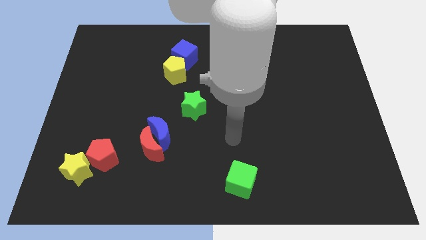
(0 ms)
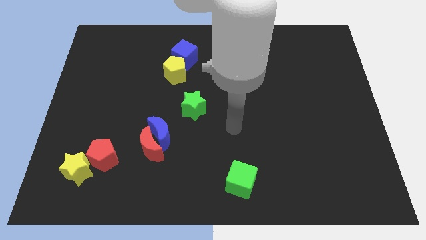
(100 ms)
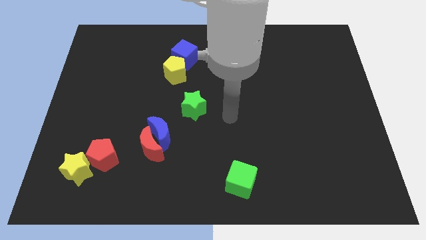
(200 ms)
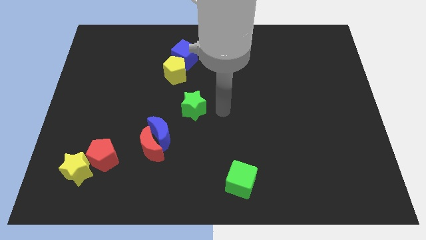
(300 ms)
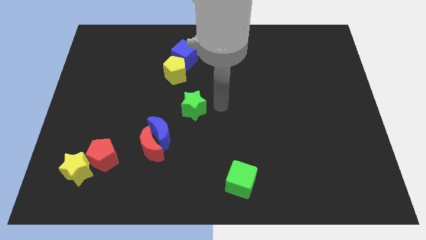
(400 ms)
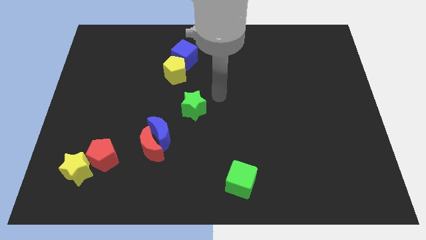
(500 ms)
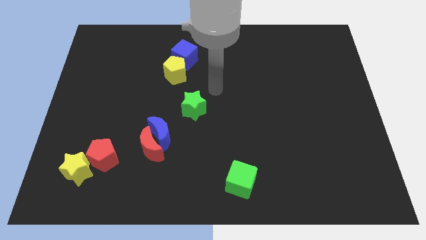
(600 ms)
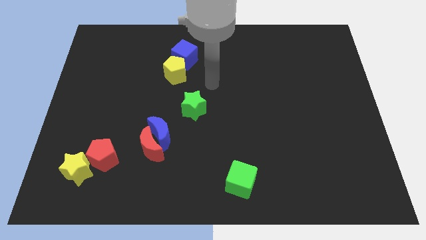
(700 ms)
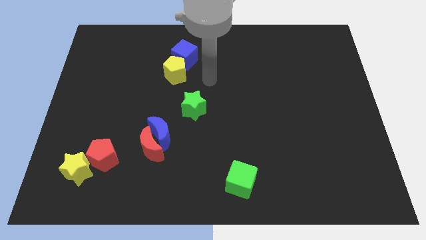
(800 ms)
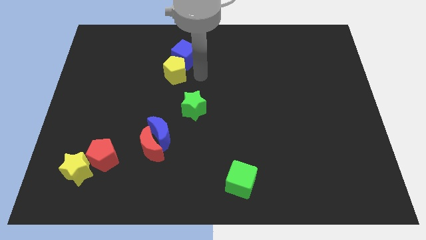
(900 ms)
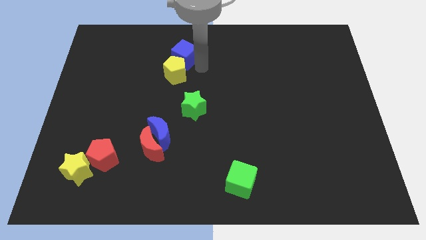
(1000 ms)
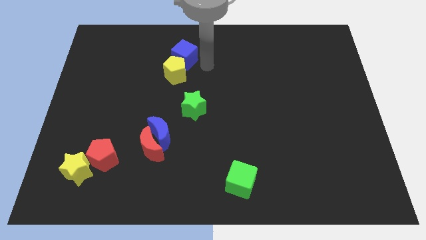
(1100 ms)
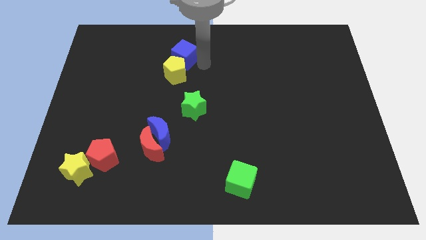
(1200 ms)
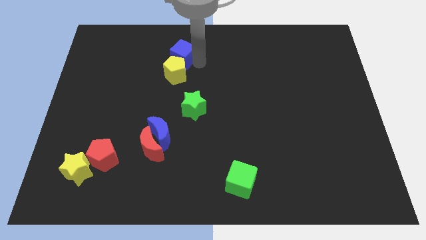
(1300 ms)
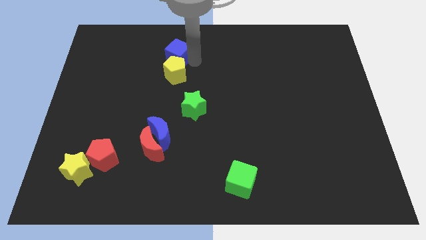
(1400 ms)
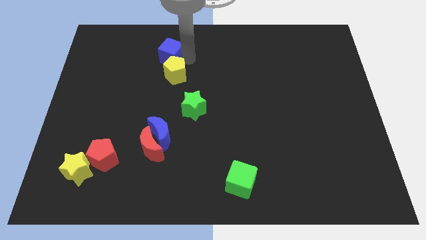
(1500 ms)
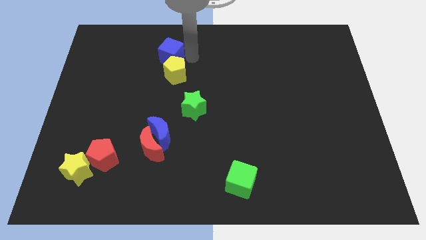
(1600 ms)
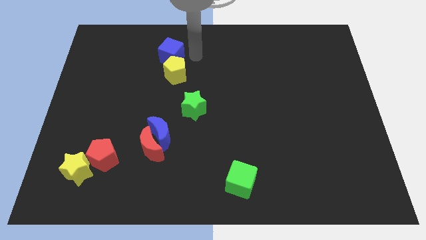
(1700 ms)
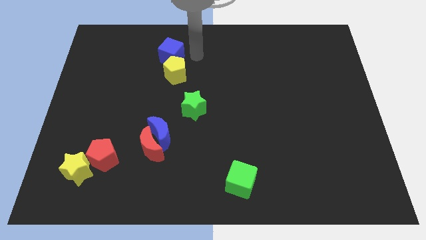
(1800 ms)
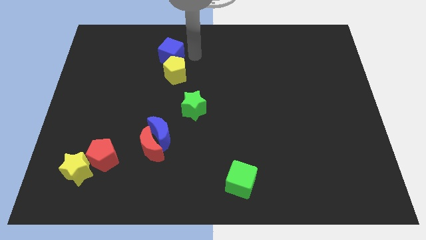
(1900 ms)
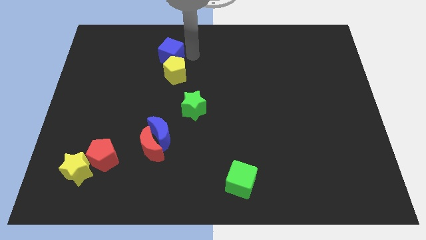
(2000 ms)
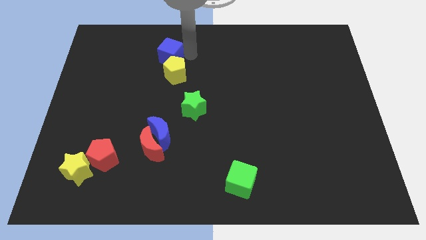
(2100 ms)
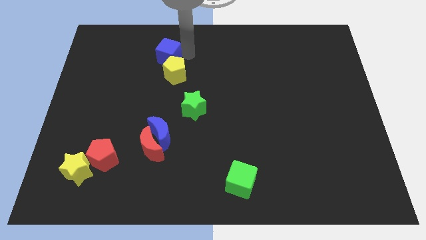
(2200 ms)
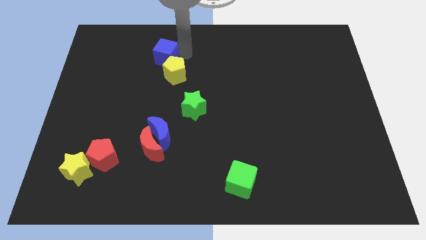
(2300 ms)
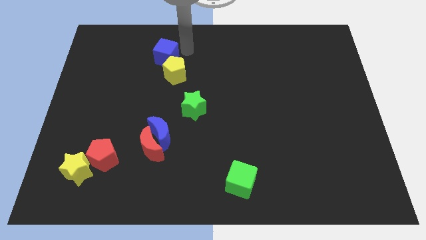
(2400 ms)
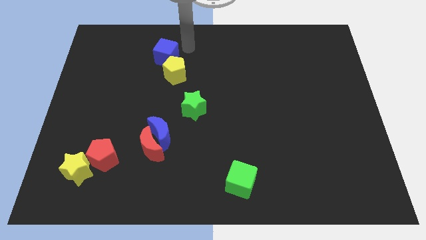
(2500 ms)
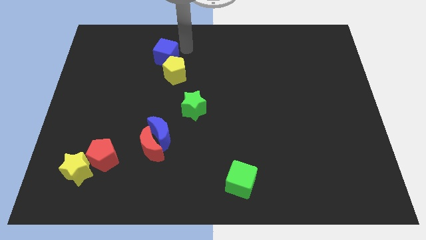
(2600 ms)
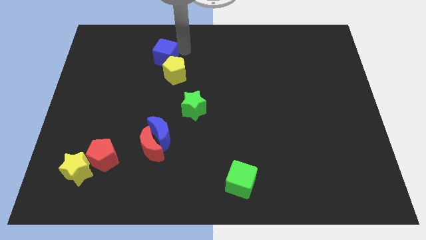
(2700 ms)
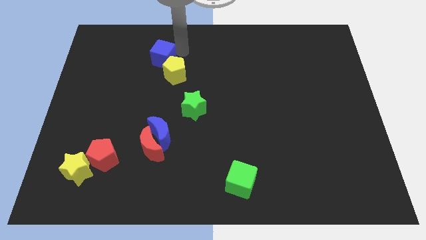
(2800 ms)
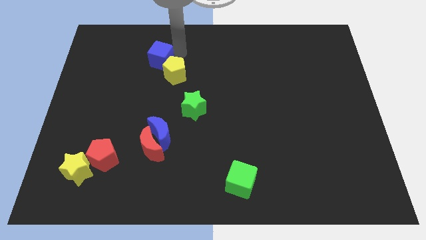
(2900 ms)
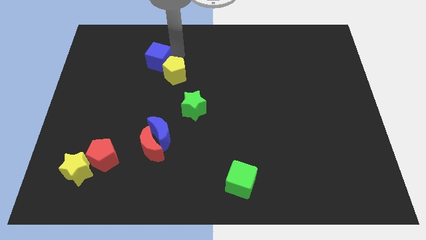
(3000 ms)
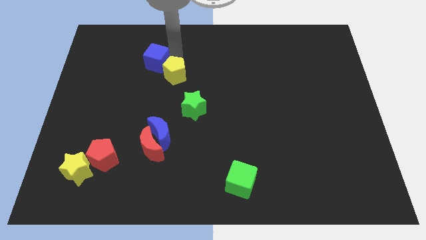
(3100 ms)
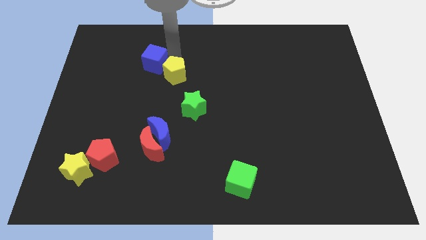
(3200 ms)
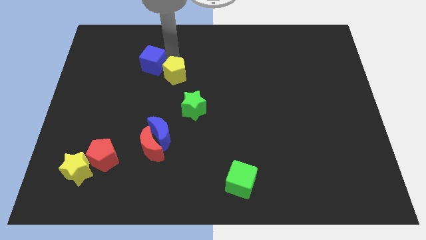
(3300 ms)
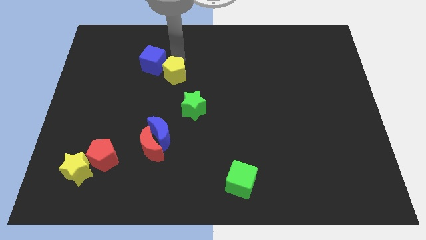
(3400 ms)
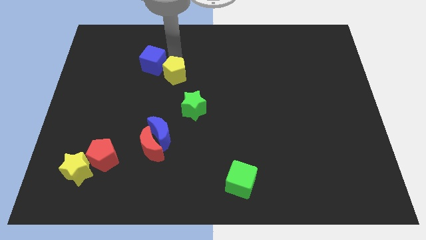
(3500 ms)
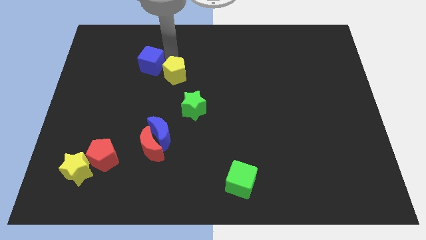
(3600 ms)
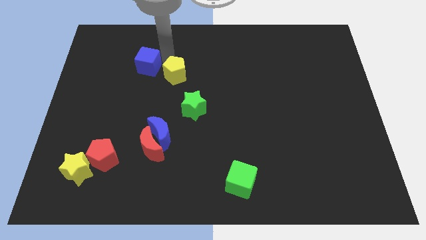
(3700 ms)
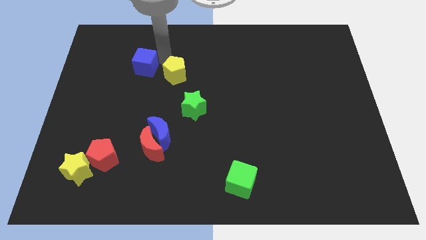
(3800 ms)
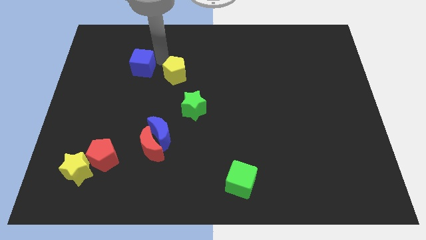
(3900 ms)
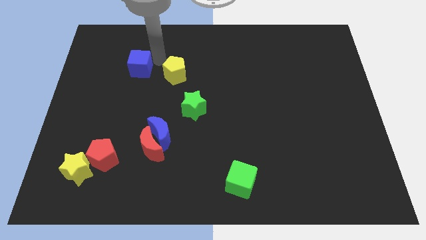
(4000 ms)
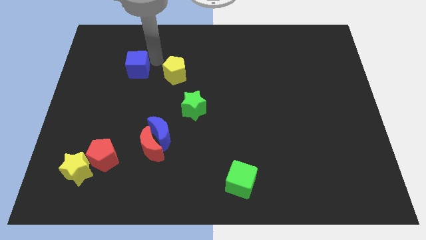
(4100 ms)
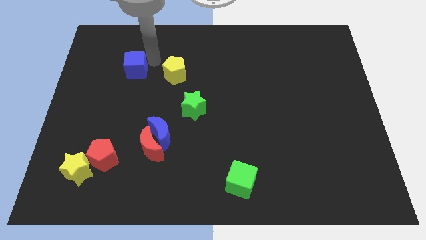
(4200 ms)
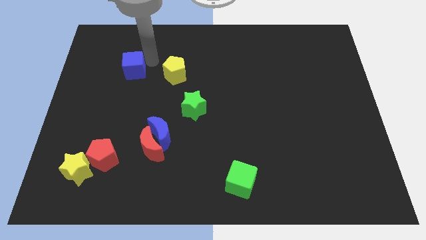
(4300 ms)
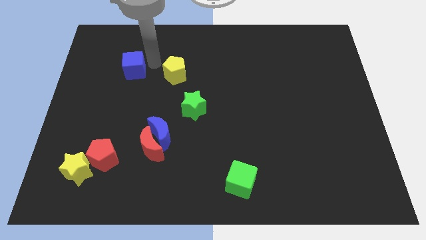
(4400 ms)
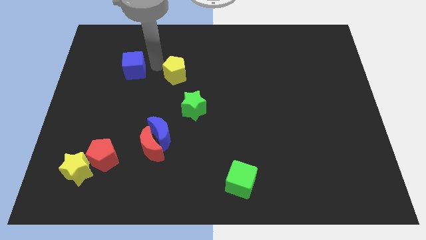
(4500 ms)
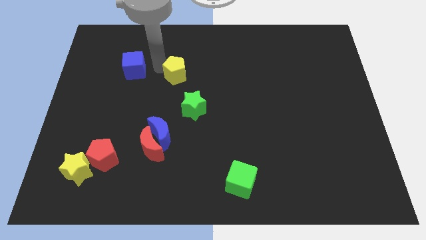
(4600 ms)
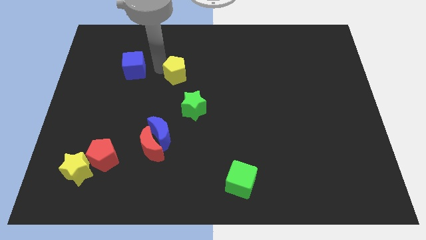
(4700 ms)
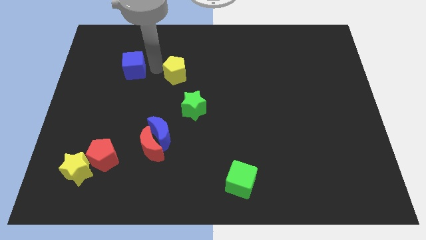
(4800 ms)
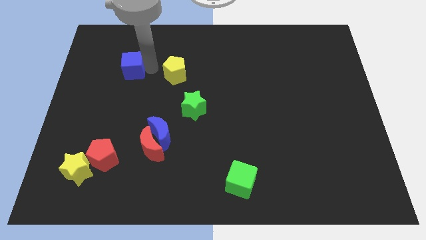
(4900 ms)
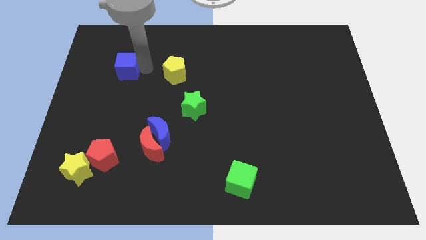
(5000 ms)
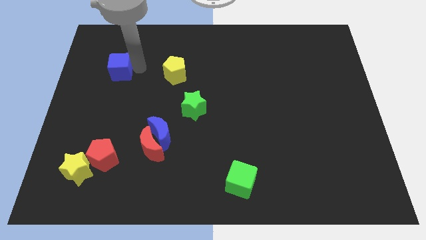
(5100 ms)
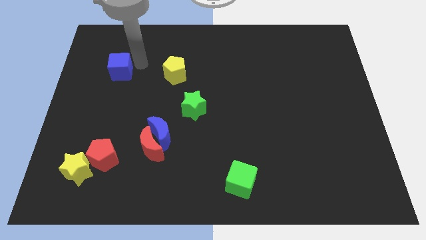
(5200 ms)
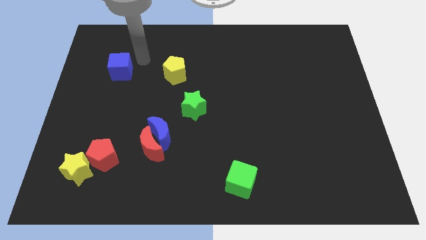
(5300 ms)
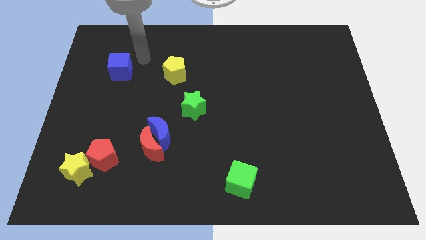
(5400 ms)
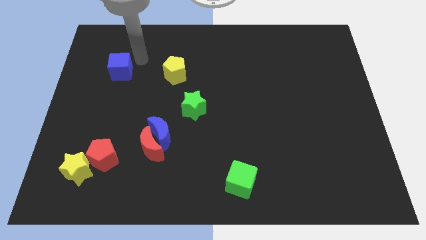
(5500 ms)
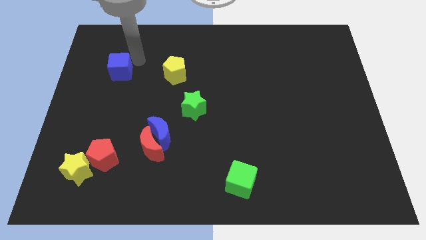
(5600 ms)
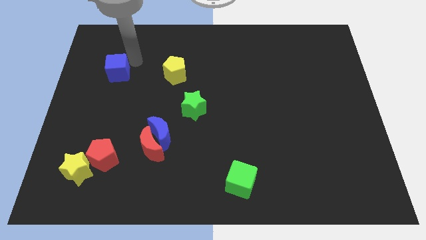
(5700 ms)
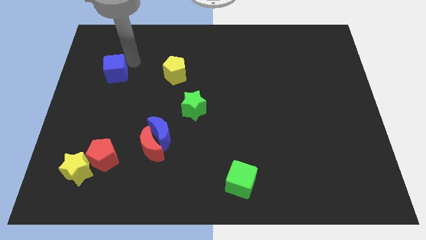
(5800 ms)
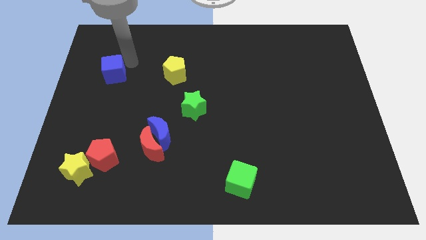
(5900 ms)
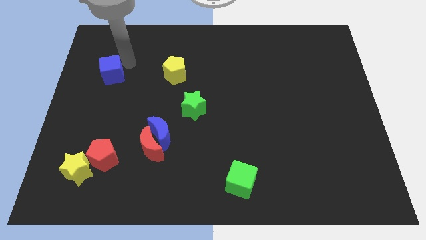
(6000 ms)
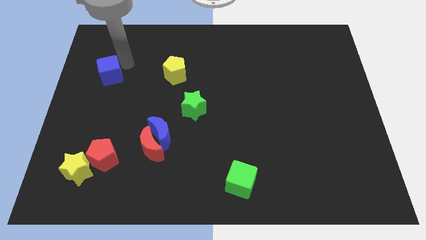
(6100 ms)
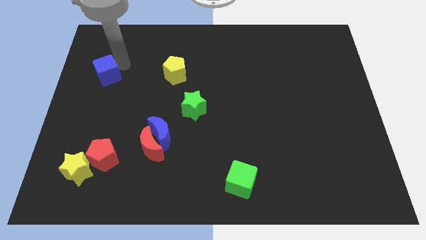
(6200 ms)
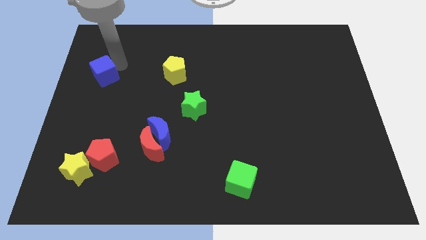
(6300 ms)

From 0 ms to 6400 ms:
slide the blue cube to the center left
